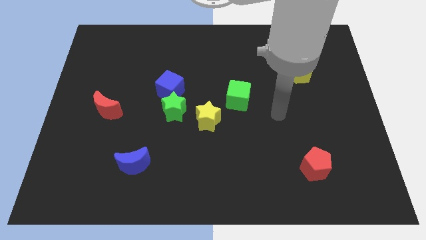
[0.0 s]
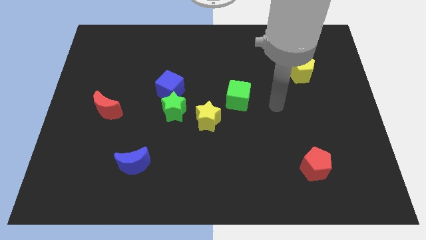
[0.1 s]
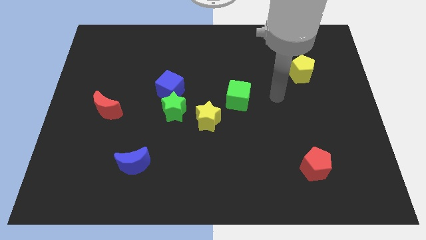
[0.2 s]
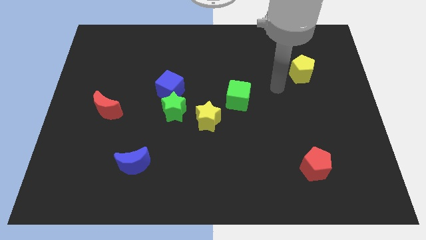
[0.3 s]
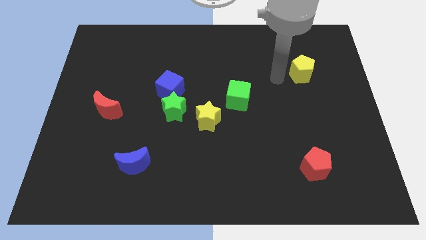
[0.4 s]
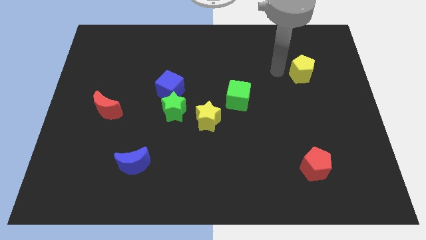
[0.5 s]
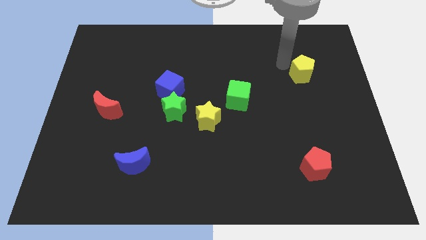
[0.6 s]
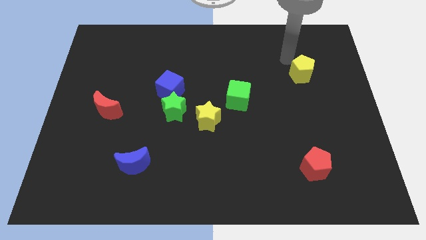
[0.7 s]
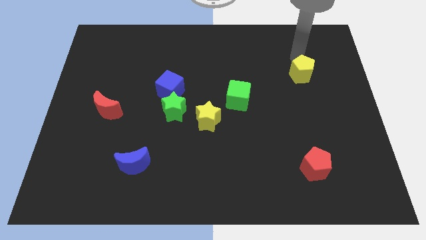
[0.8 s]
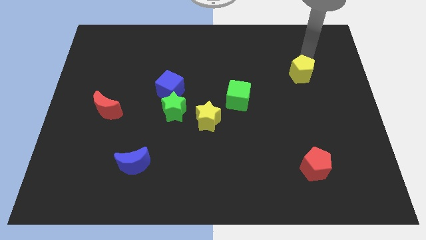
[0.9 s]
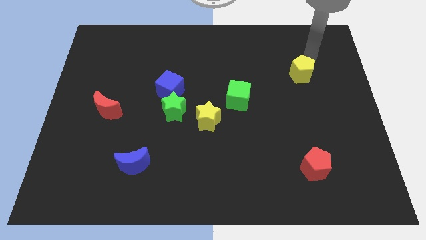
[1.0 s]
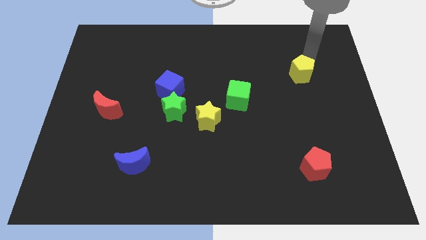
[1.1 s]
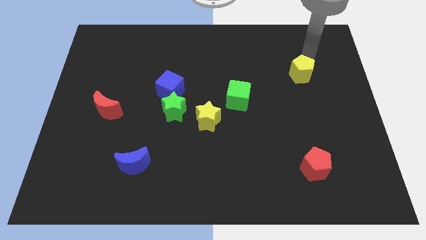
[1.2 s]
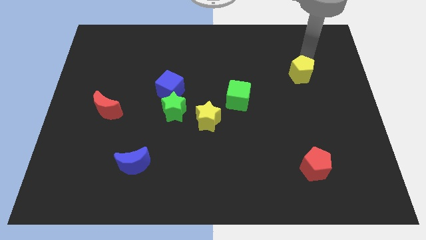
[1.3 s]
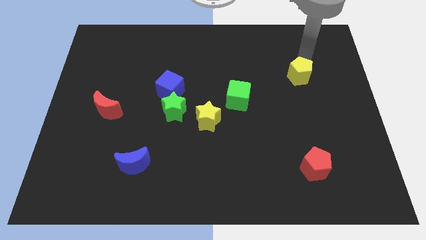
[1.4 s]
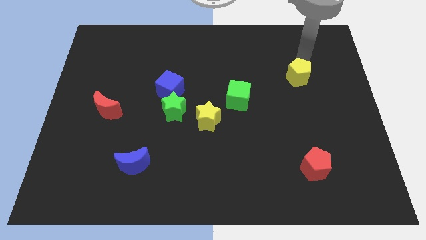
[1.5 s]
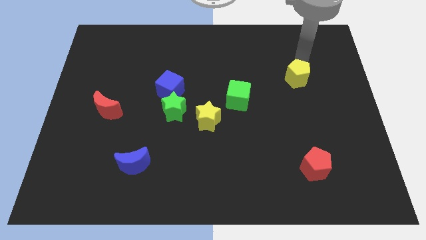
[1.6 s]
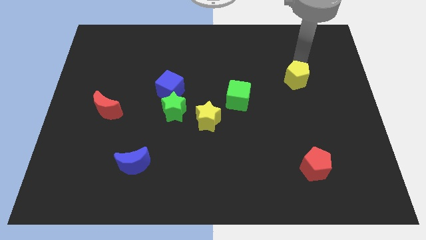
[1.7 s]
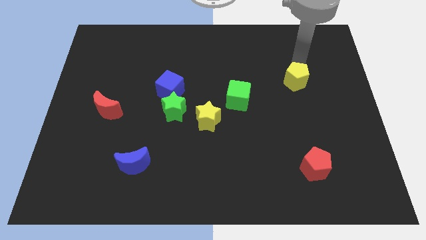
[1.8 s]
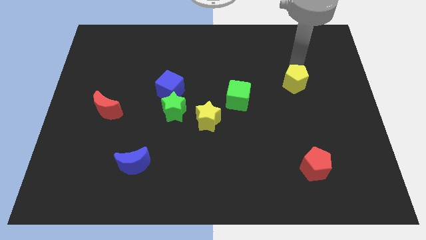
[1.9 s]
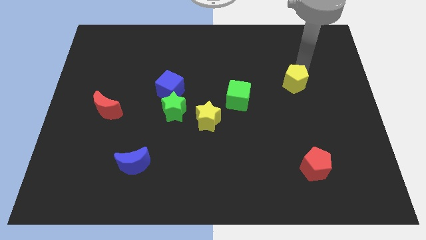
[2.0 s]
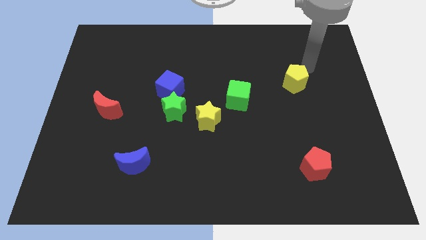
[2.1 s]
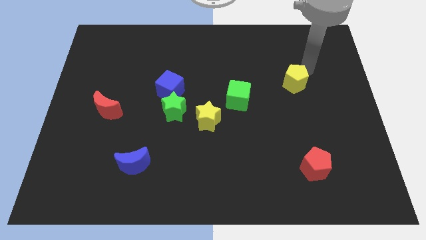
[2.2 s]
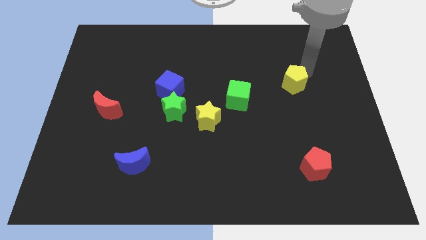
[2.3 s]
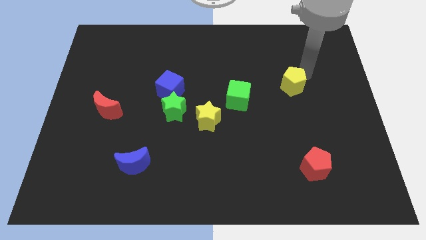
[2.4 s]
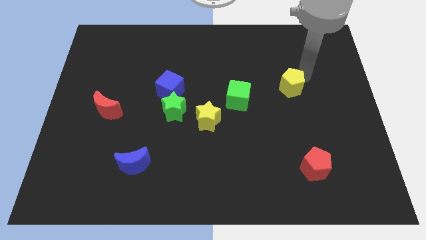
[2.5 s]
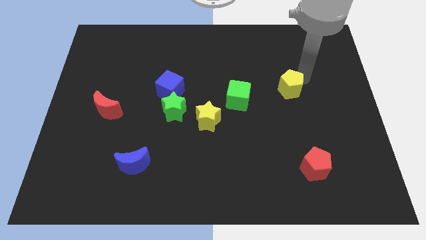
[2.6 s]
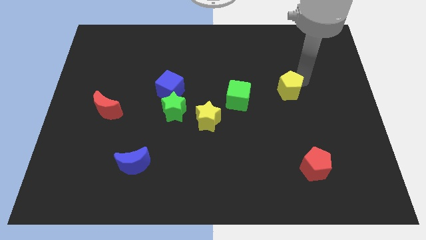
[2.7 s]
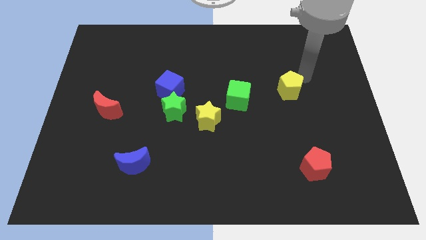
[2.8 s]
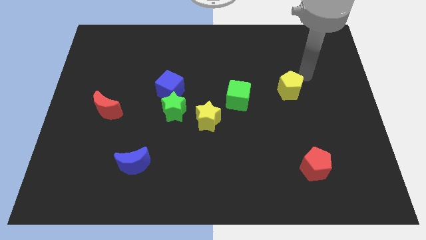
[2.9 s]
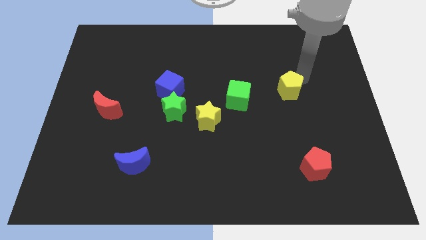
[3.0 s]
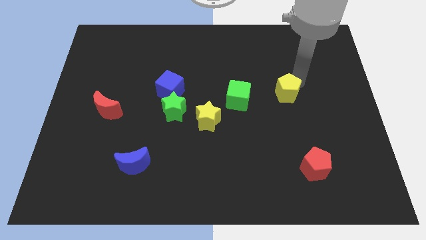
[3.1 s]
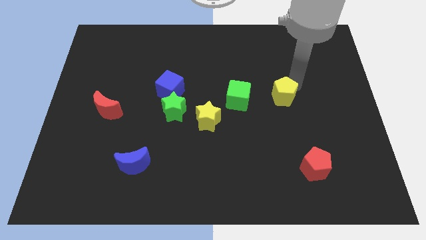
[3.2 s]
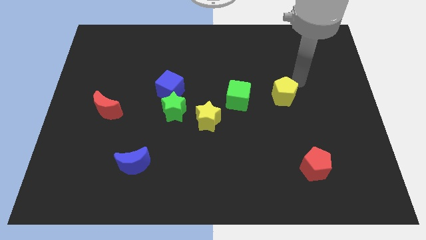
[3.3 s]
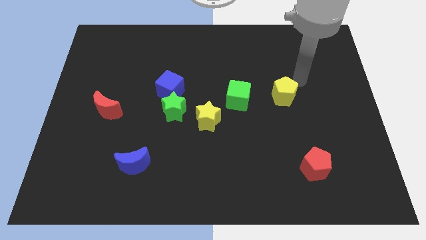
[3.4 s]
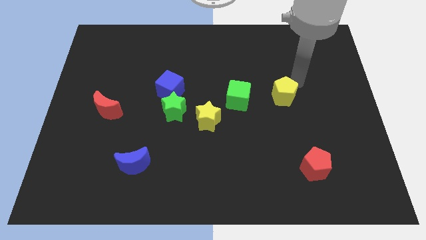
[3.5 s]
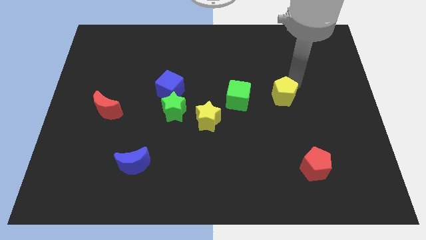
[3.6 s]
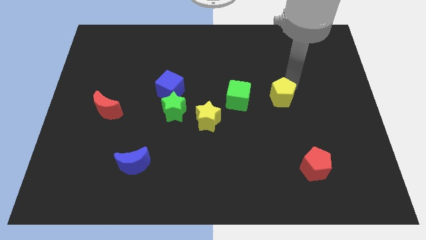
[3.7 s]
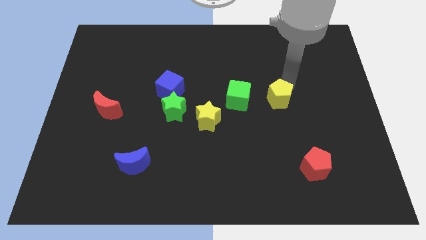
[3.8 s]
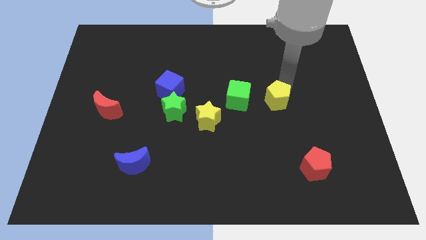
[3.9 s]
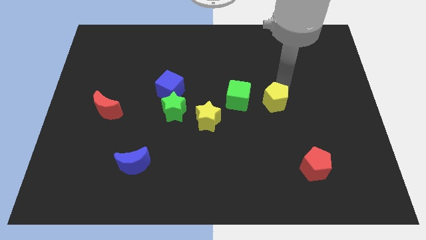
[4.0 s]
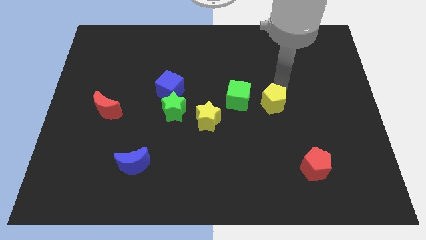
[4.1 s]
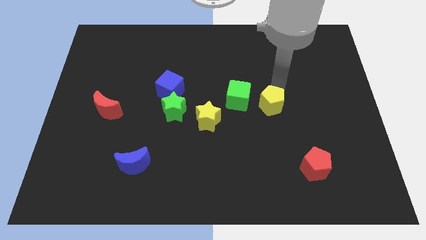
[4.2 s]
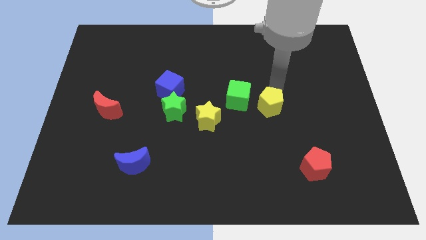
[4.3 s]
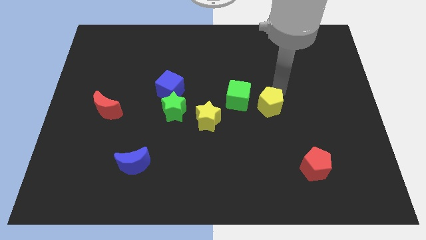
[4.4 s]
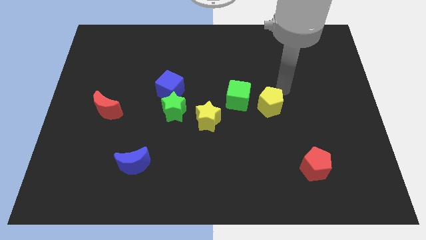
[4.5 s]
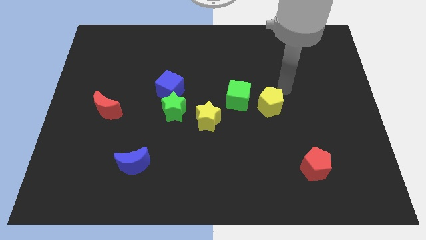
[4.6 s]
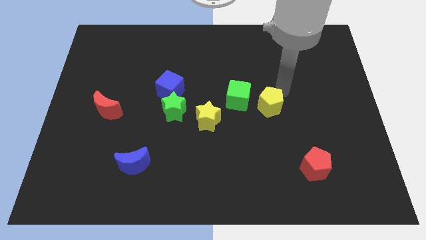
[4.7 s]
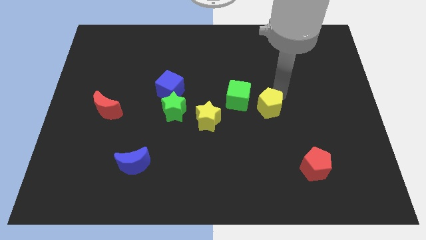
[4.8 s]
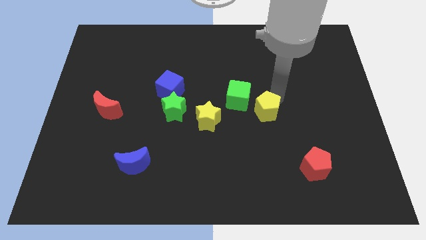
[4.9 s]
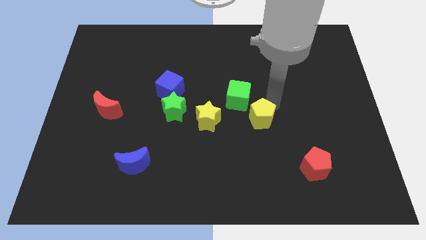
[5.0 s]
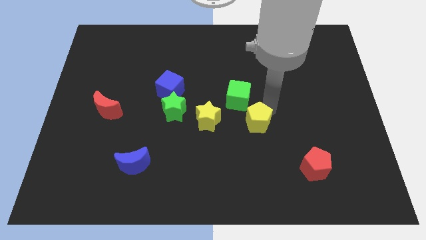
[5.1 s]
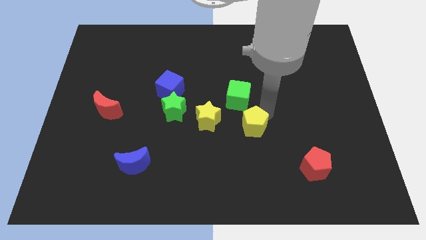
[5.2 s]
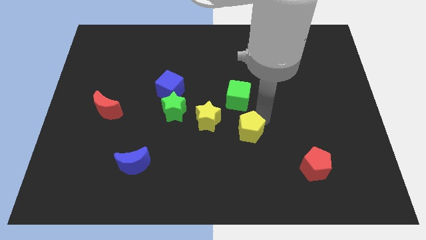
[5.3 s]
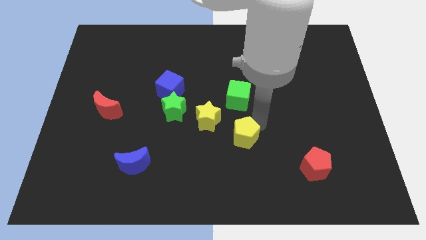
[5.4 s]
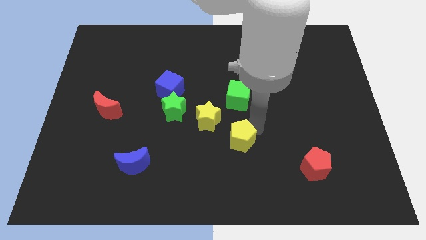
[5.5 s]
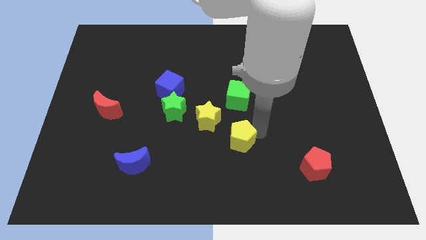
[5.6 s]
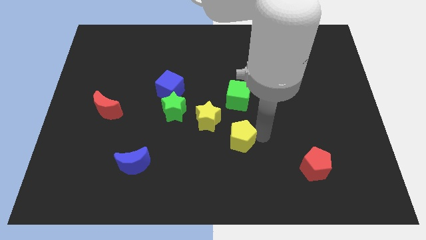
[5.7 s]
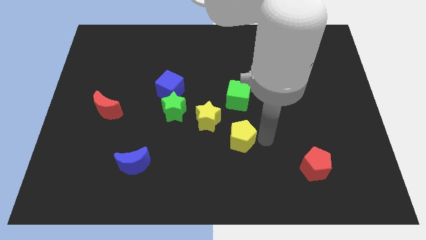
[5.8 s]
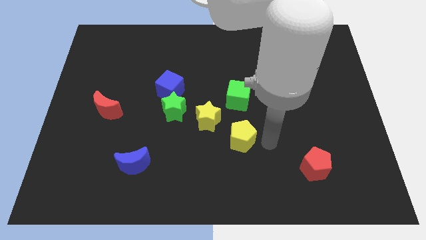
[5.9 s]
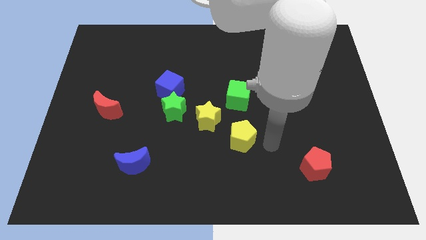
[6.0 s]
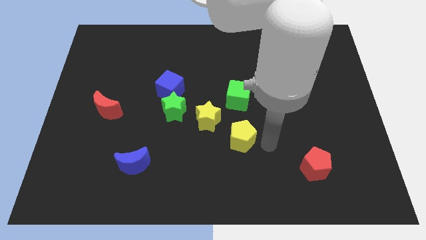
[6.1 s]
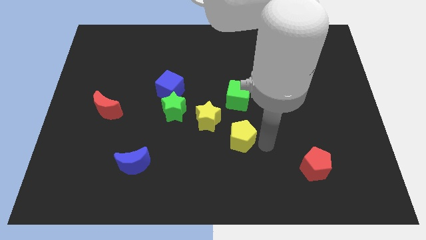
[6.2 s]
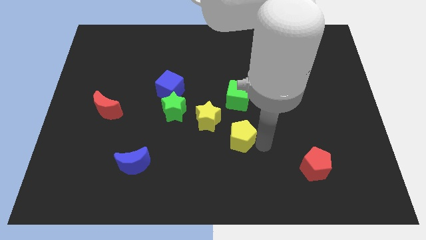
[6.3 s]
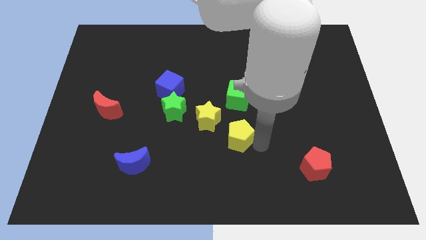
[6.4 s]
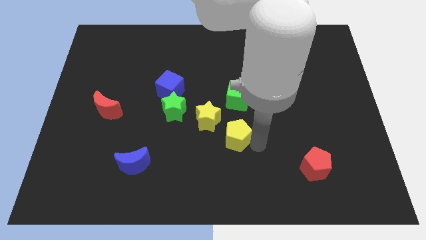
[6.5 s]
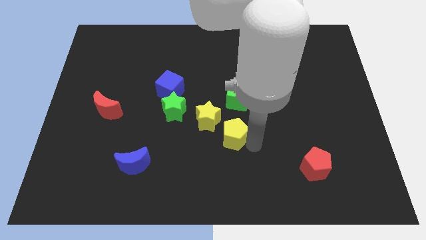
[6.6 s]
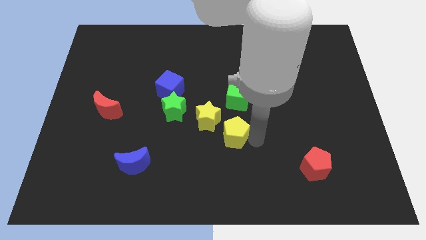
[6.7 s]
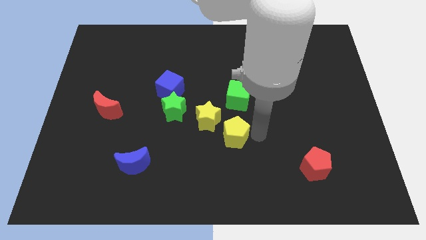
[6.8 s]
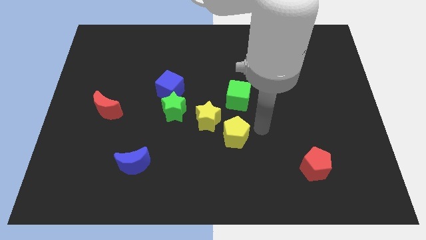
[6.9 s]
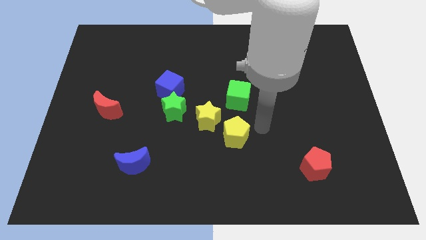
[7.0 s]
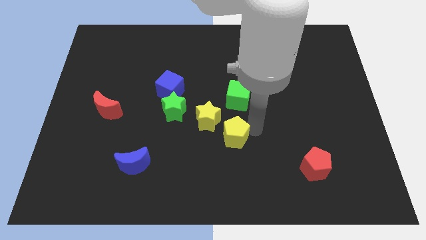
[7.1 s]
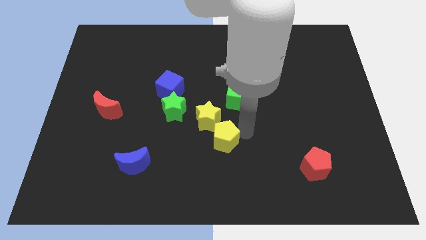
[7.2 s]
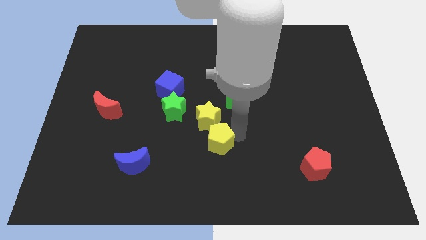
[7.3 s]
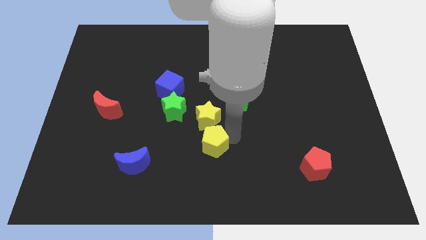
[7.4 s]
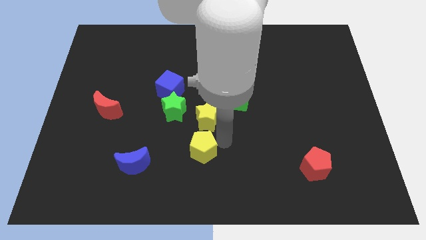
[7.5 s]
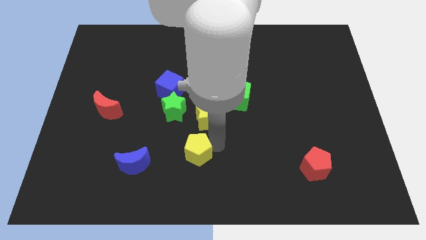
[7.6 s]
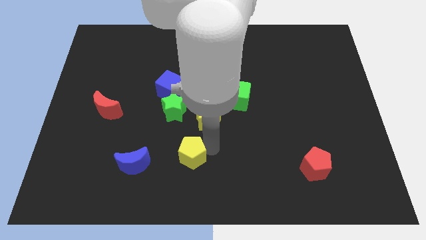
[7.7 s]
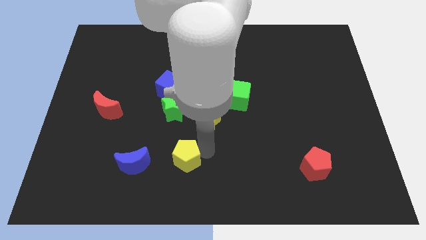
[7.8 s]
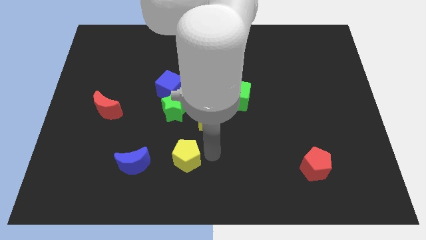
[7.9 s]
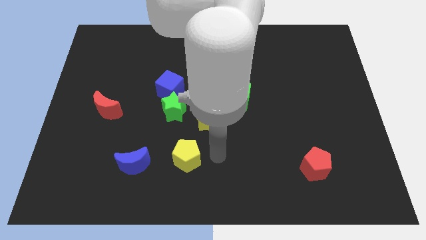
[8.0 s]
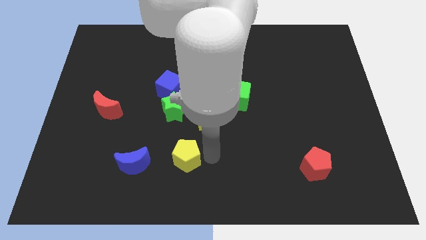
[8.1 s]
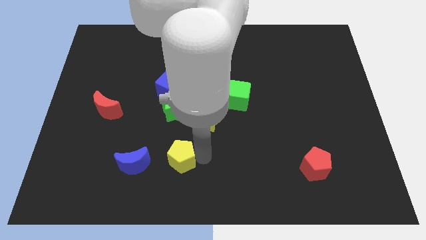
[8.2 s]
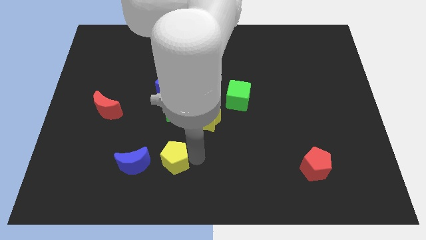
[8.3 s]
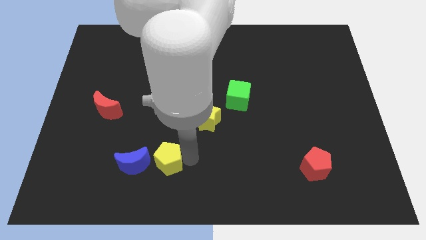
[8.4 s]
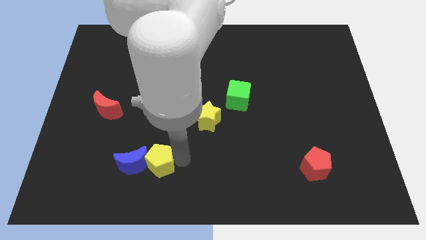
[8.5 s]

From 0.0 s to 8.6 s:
push the yellow pentagon to the blue moon
